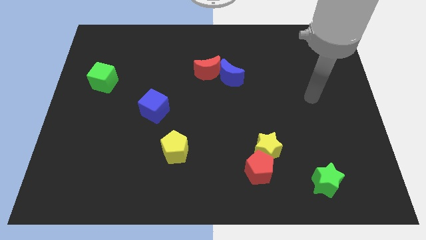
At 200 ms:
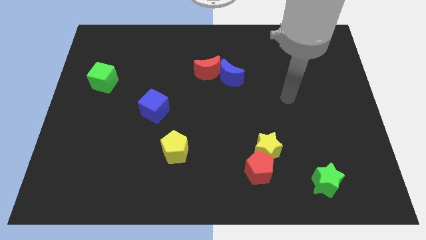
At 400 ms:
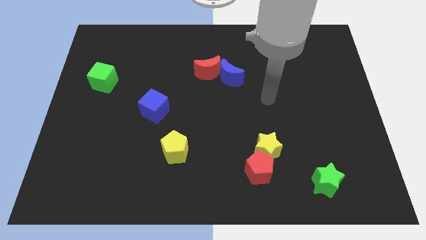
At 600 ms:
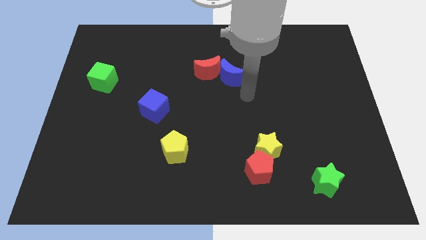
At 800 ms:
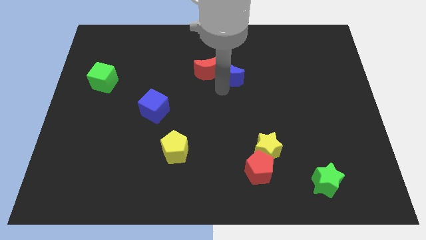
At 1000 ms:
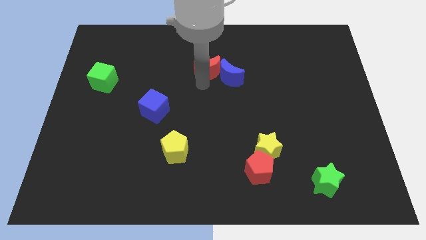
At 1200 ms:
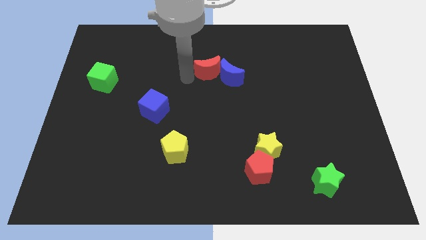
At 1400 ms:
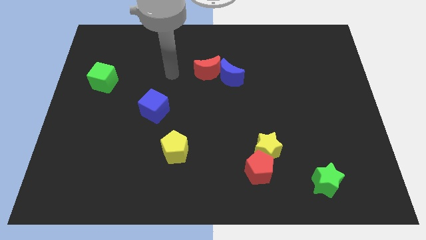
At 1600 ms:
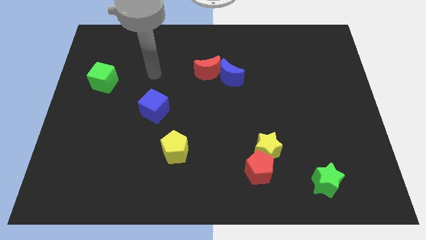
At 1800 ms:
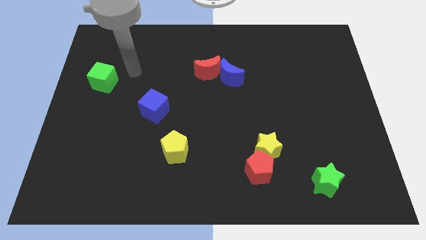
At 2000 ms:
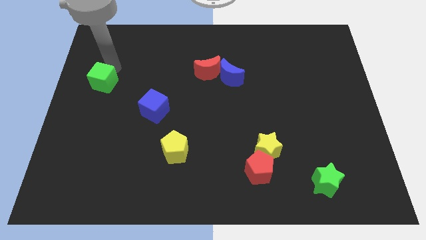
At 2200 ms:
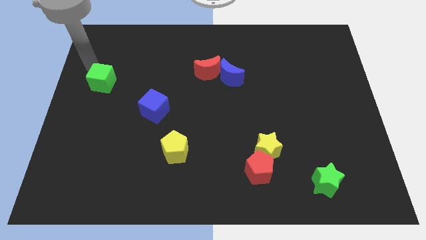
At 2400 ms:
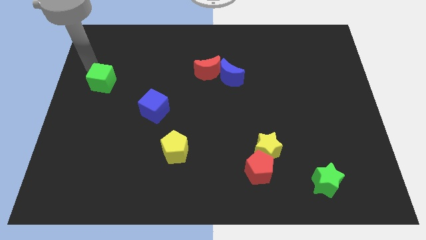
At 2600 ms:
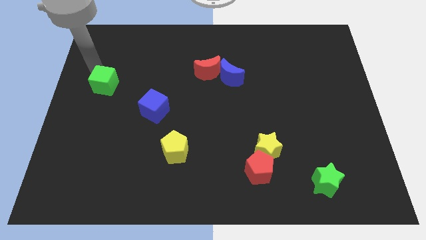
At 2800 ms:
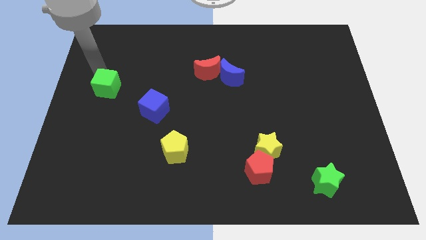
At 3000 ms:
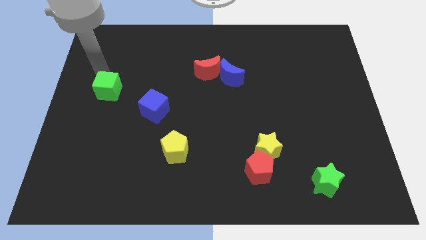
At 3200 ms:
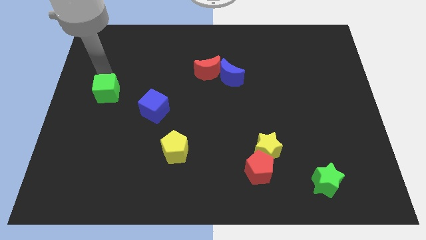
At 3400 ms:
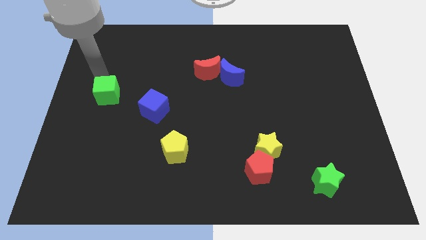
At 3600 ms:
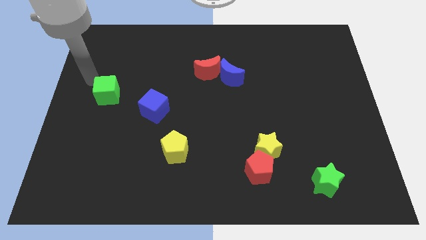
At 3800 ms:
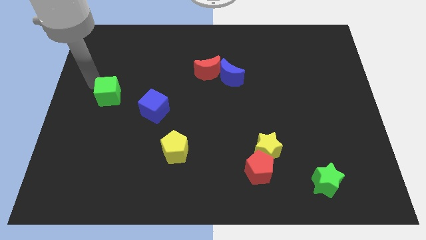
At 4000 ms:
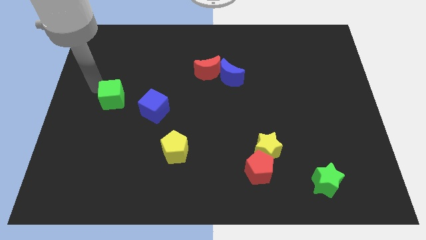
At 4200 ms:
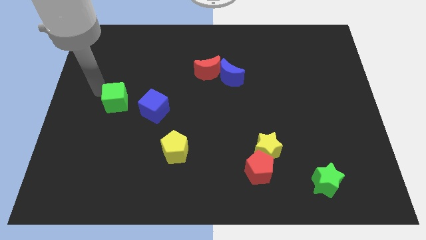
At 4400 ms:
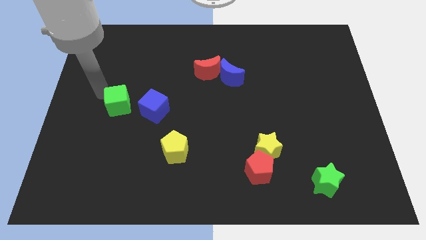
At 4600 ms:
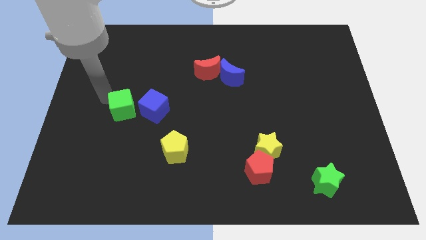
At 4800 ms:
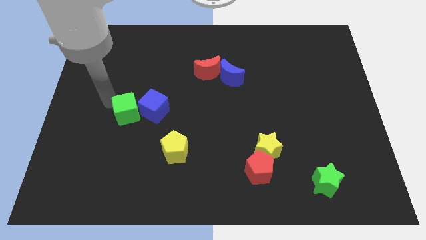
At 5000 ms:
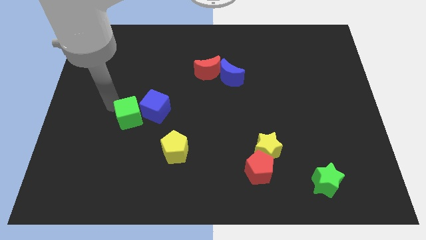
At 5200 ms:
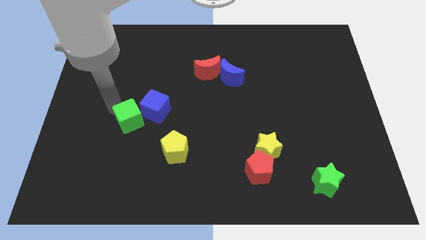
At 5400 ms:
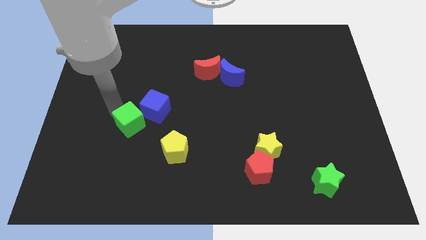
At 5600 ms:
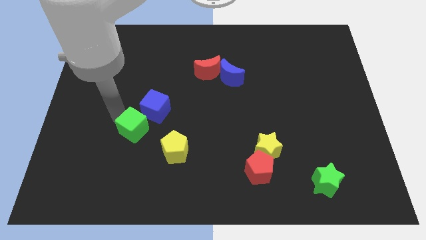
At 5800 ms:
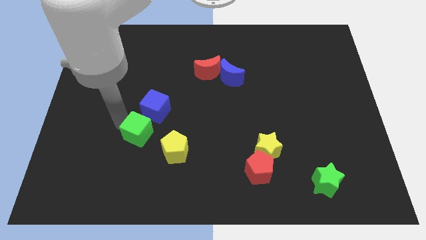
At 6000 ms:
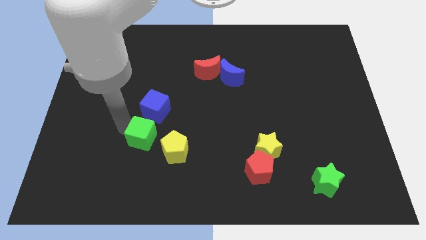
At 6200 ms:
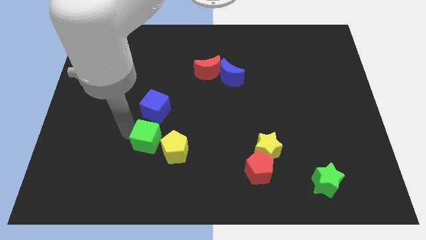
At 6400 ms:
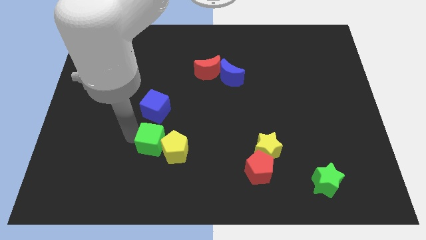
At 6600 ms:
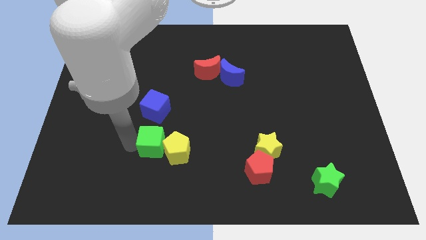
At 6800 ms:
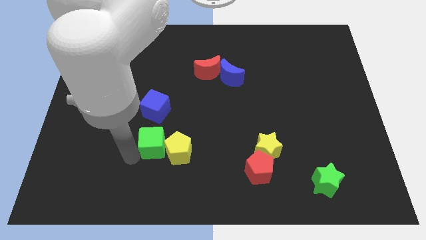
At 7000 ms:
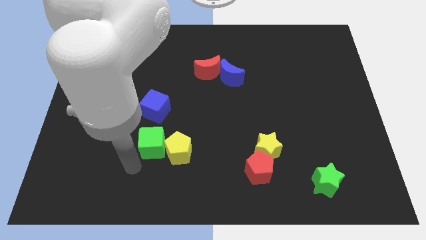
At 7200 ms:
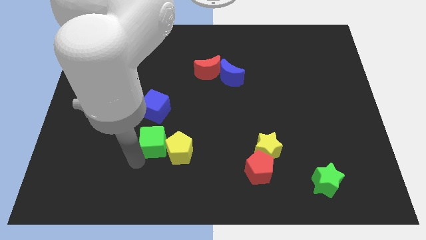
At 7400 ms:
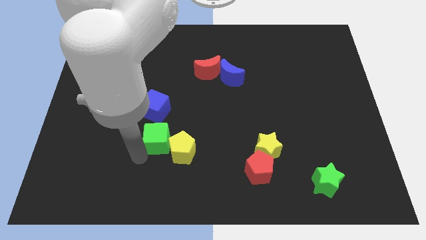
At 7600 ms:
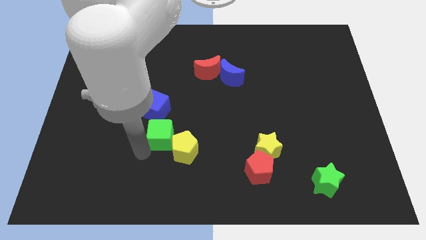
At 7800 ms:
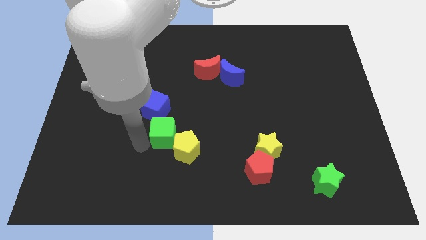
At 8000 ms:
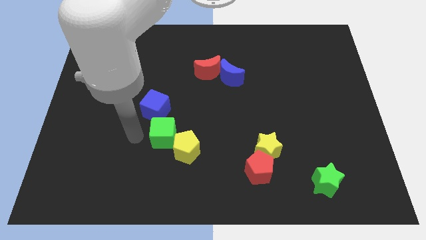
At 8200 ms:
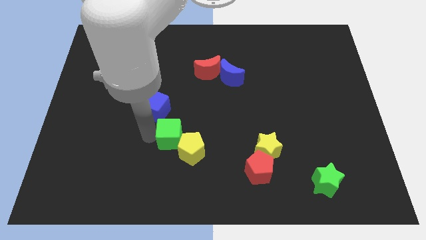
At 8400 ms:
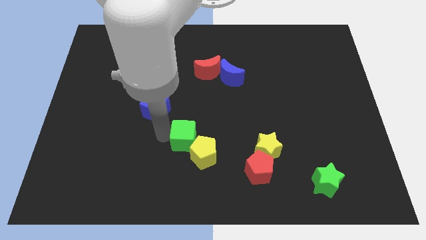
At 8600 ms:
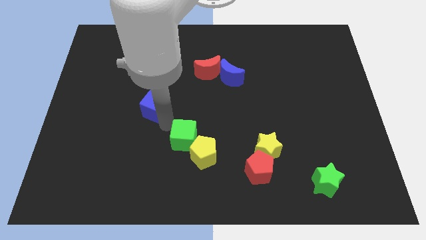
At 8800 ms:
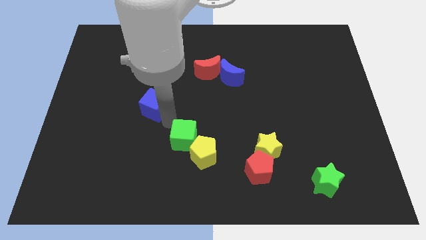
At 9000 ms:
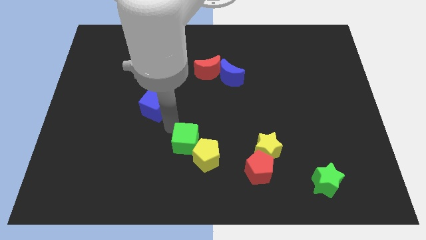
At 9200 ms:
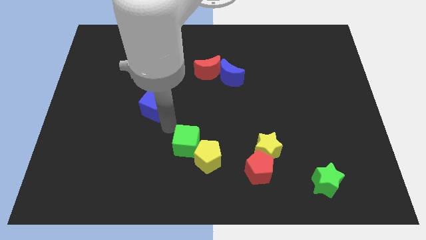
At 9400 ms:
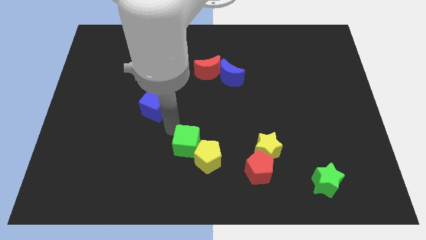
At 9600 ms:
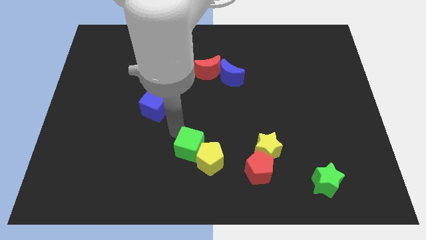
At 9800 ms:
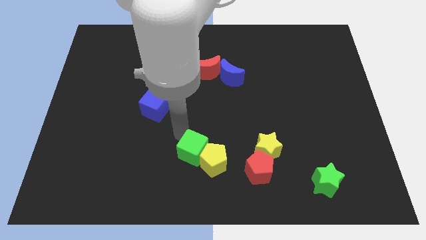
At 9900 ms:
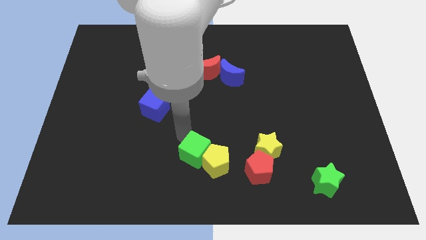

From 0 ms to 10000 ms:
put the green cube to the left side of the red pentagon

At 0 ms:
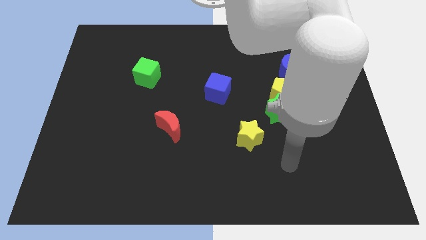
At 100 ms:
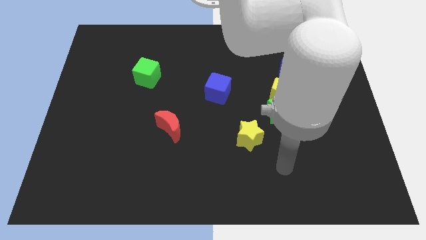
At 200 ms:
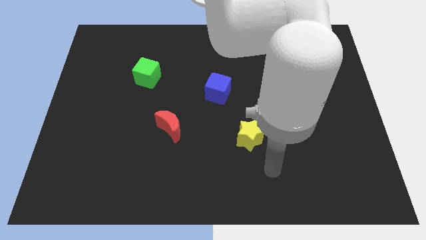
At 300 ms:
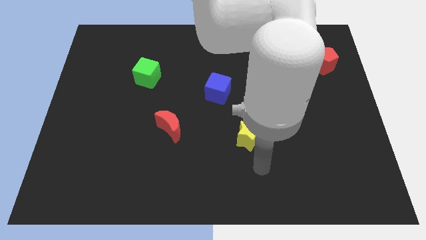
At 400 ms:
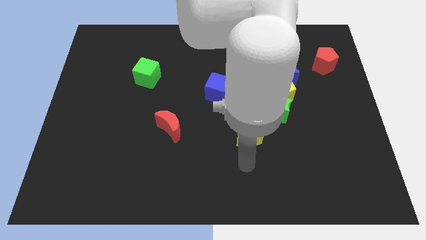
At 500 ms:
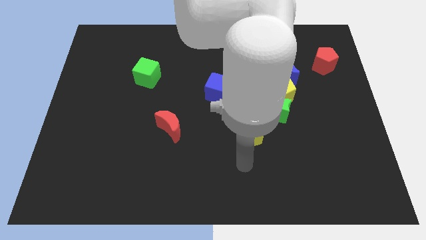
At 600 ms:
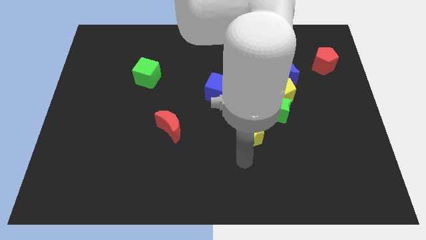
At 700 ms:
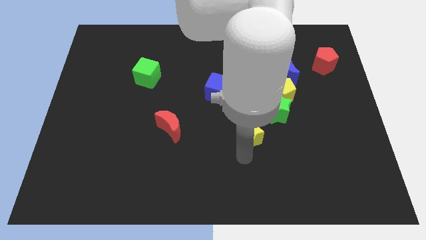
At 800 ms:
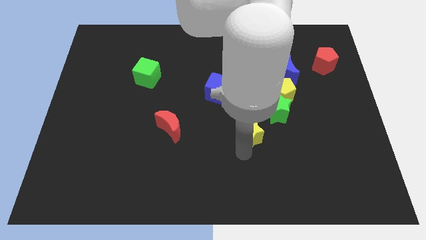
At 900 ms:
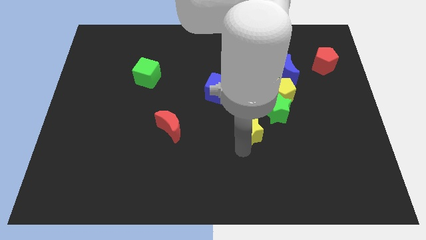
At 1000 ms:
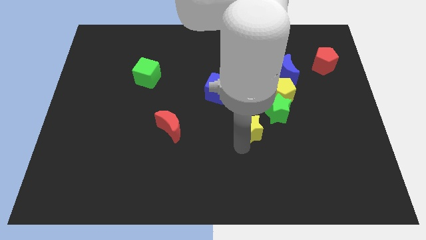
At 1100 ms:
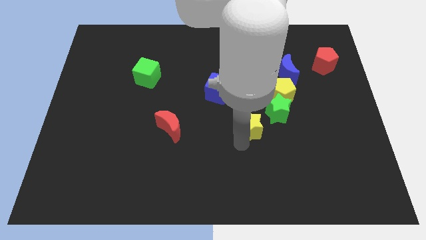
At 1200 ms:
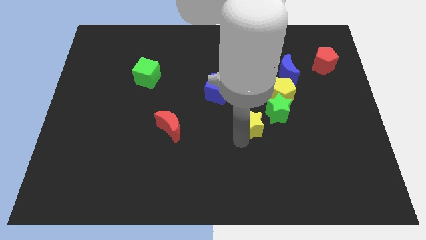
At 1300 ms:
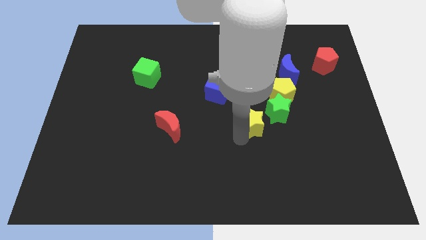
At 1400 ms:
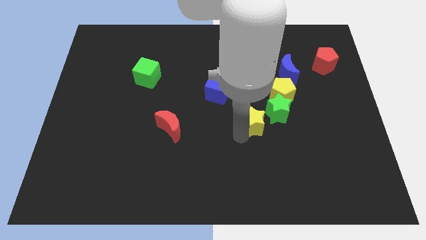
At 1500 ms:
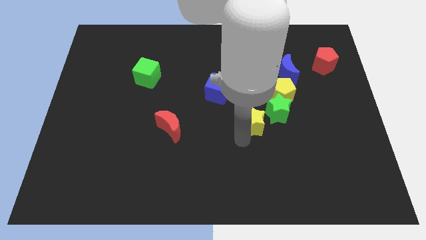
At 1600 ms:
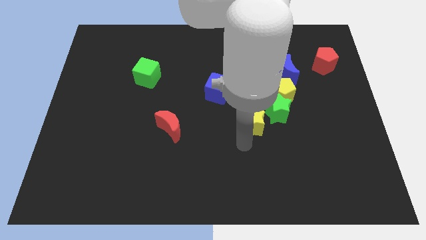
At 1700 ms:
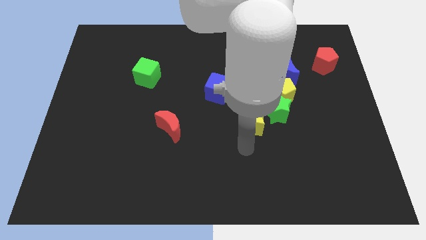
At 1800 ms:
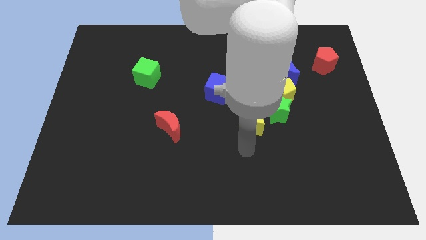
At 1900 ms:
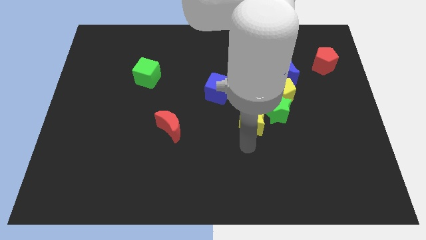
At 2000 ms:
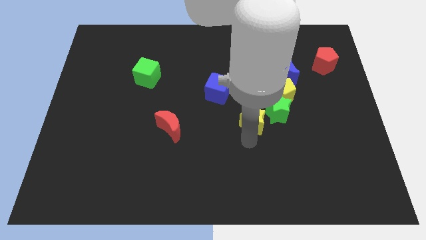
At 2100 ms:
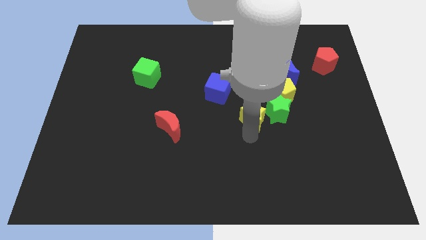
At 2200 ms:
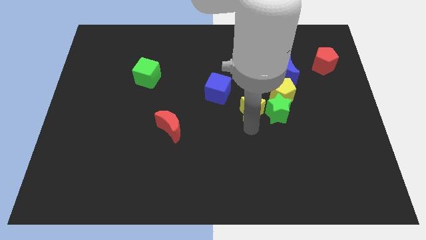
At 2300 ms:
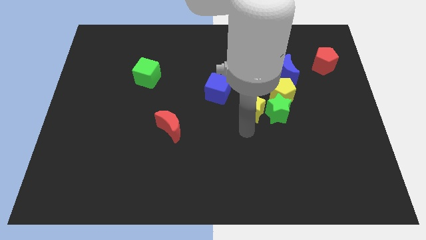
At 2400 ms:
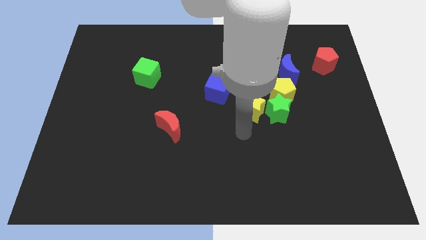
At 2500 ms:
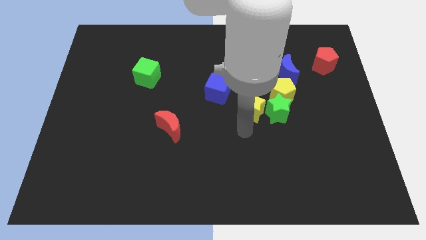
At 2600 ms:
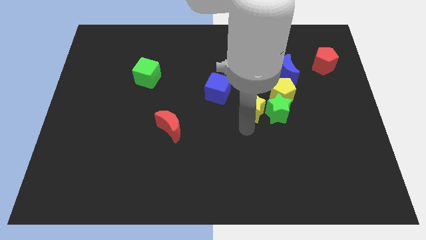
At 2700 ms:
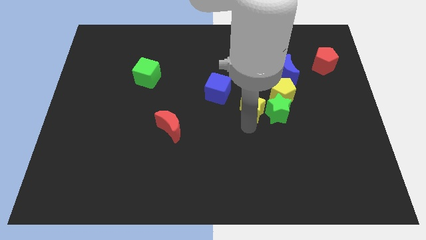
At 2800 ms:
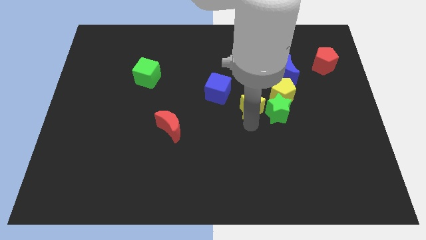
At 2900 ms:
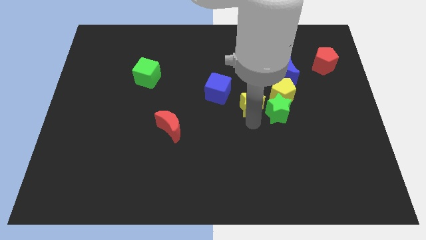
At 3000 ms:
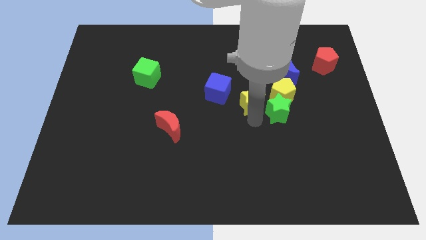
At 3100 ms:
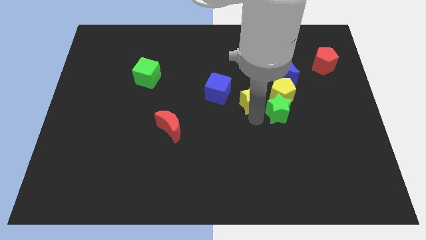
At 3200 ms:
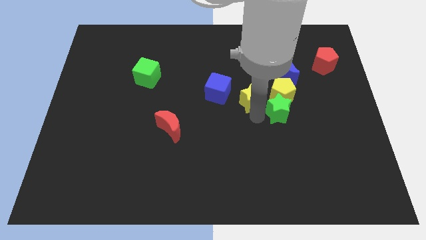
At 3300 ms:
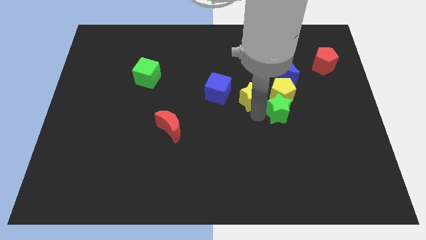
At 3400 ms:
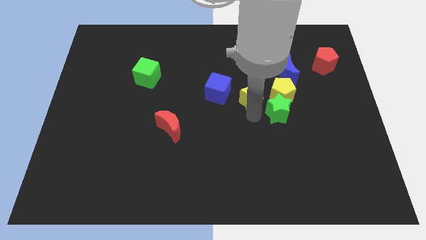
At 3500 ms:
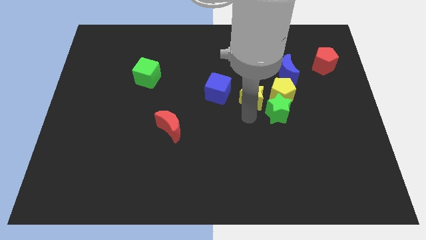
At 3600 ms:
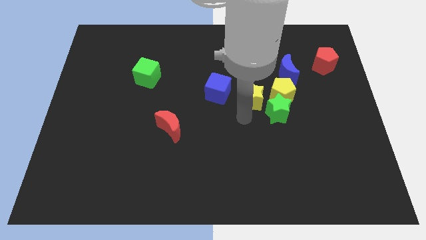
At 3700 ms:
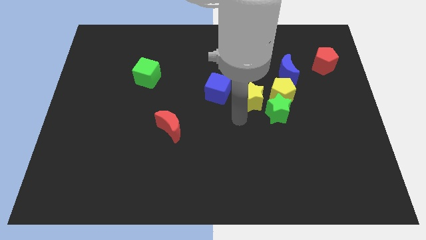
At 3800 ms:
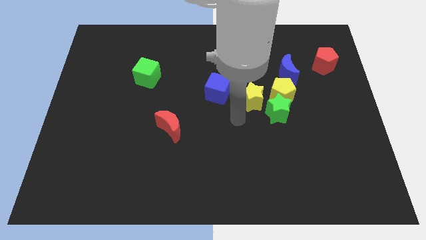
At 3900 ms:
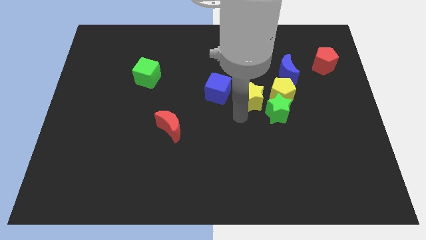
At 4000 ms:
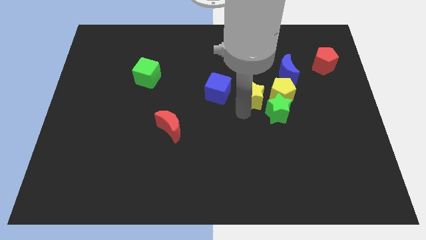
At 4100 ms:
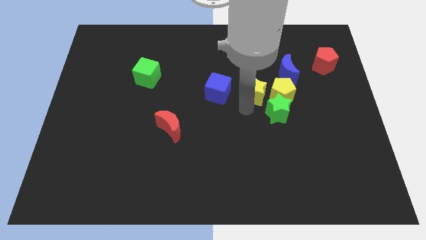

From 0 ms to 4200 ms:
slide the yellow star diagonally up and to the left of the yellow pentagon
